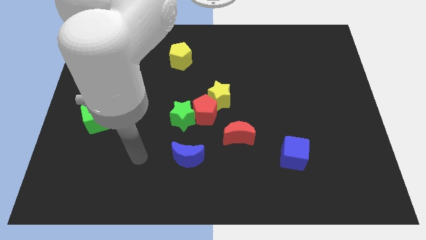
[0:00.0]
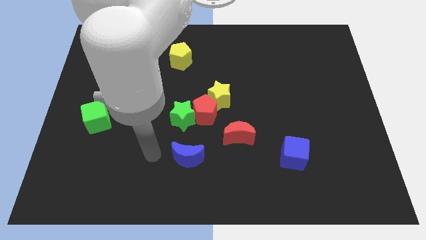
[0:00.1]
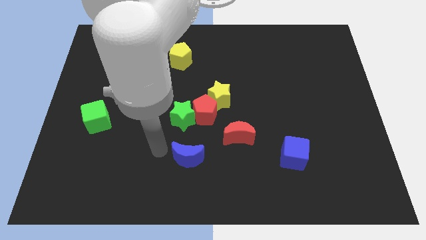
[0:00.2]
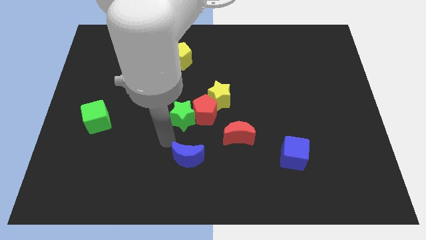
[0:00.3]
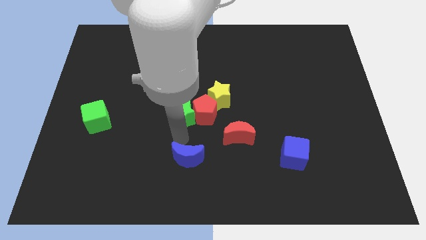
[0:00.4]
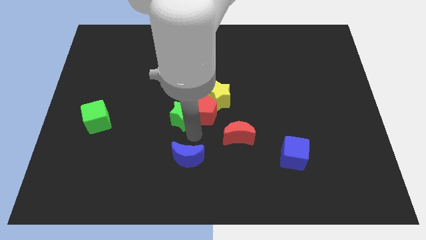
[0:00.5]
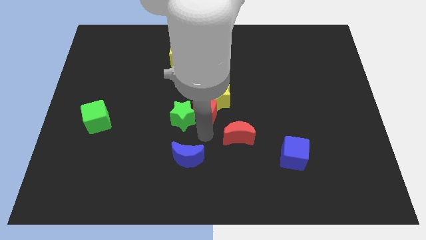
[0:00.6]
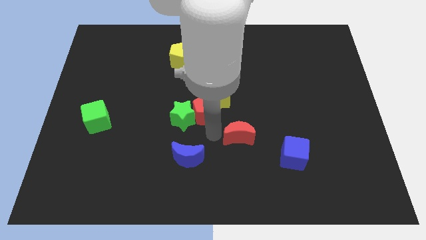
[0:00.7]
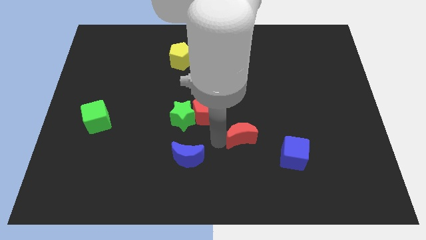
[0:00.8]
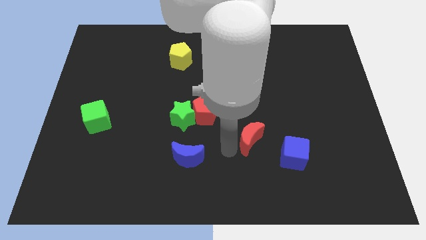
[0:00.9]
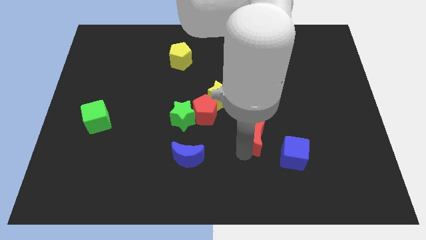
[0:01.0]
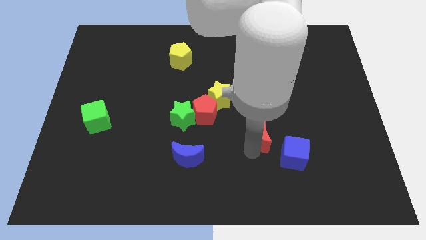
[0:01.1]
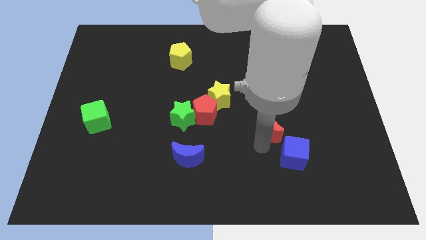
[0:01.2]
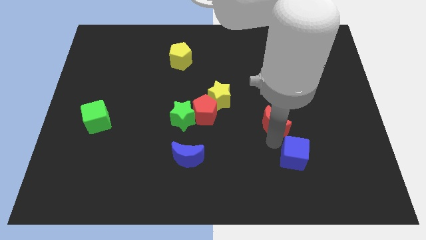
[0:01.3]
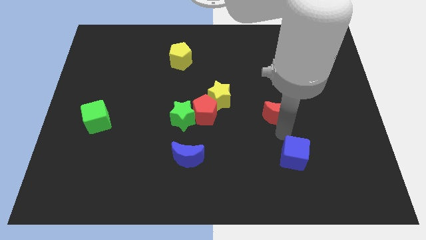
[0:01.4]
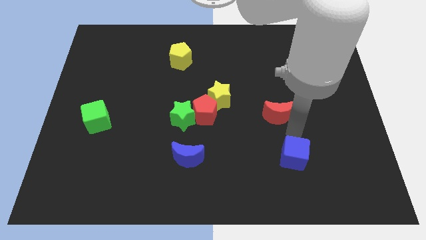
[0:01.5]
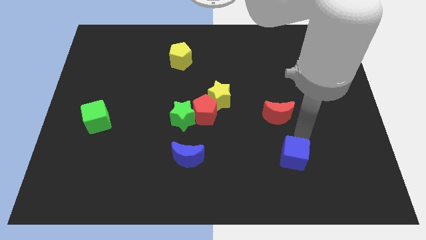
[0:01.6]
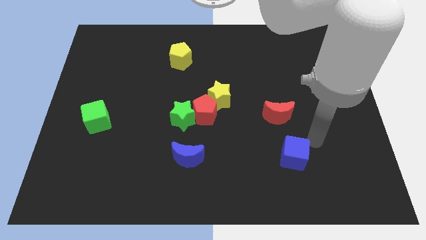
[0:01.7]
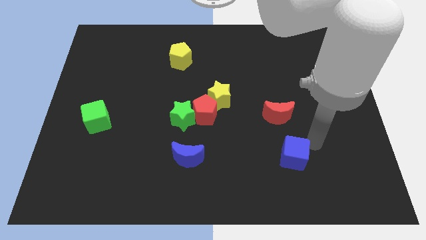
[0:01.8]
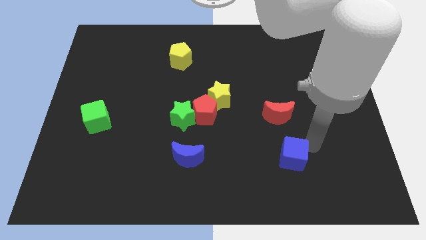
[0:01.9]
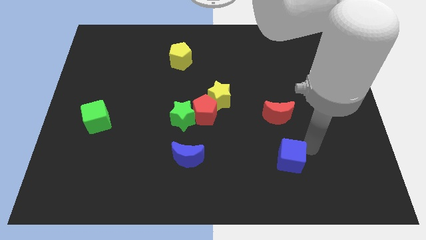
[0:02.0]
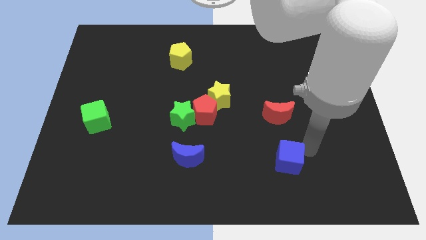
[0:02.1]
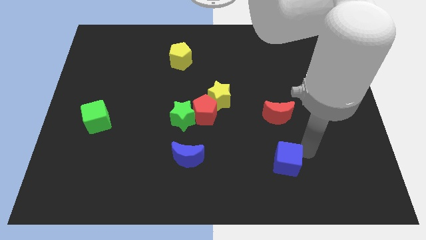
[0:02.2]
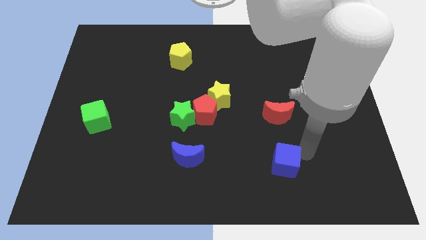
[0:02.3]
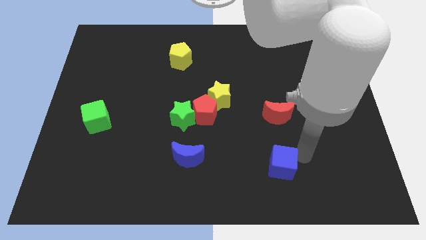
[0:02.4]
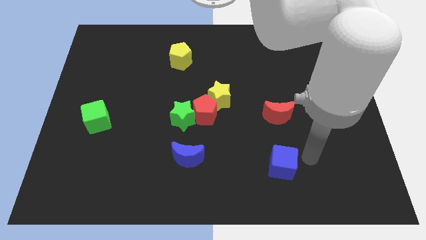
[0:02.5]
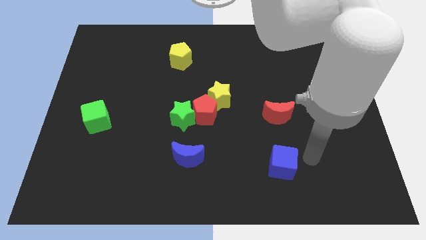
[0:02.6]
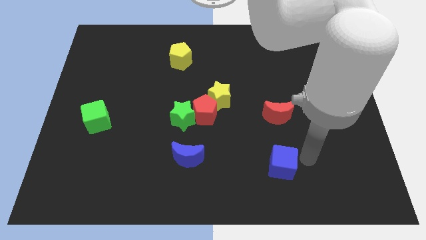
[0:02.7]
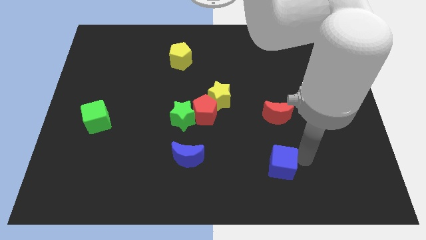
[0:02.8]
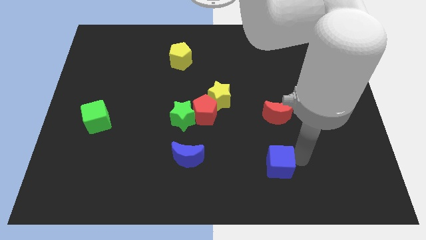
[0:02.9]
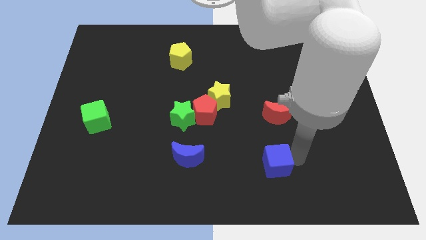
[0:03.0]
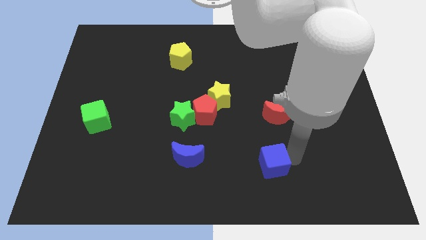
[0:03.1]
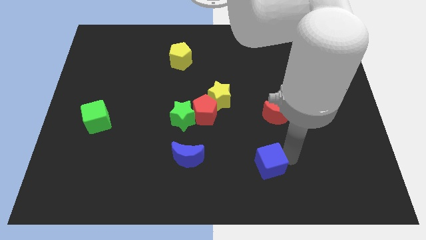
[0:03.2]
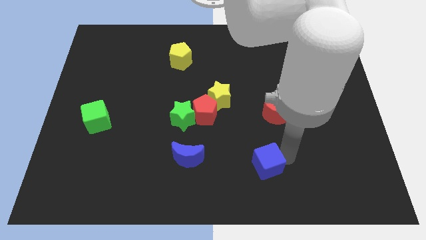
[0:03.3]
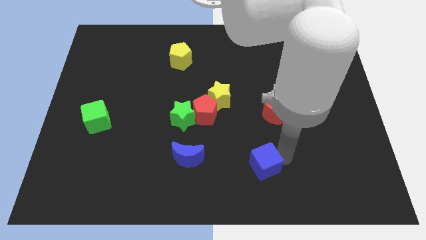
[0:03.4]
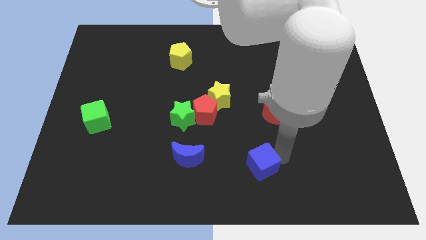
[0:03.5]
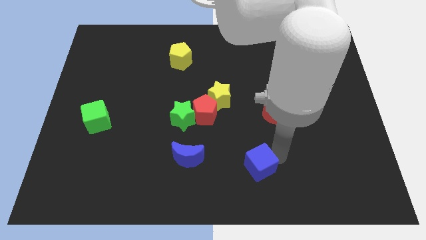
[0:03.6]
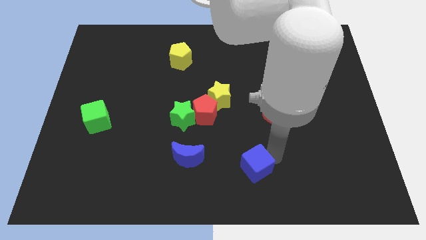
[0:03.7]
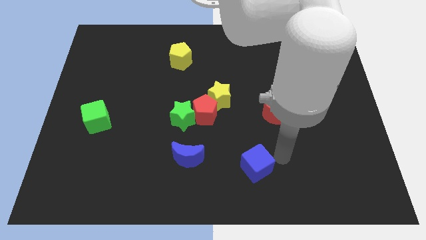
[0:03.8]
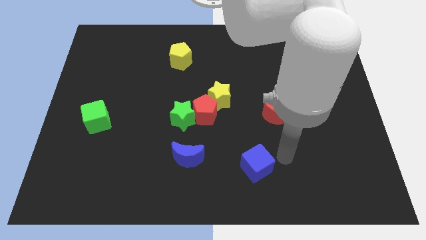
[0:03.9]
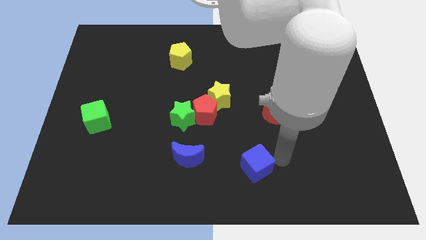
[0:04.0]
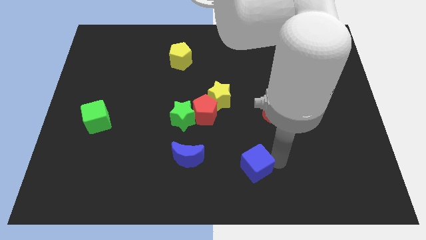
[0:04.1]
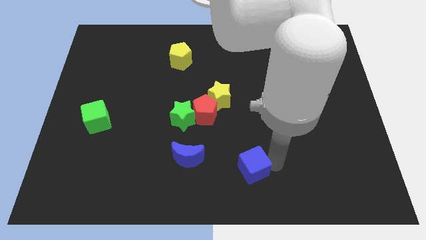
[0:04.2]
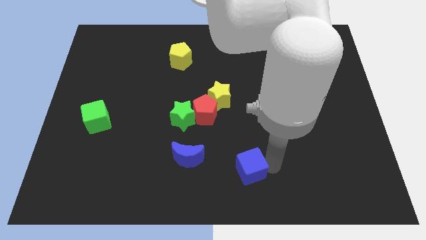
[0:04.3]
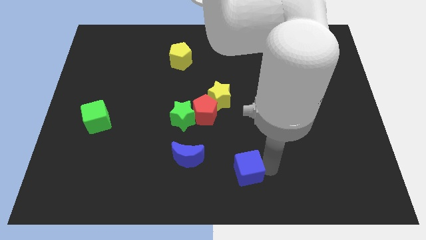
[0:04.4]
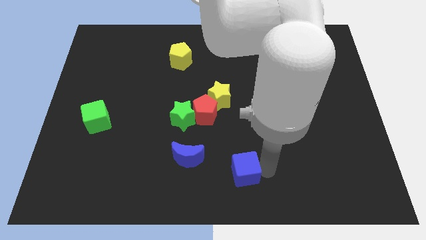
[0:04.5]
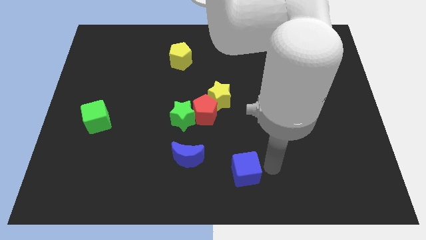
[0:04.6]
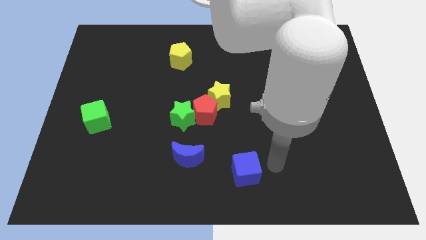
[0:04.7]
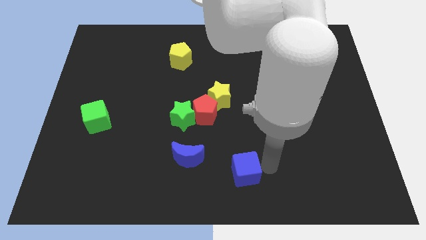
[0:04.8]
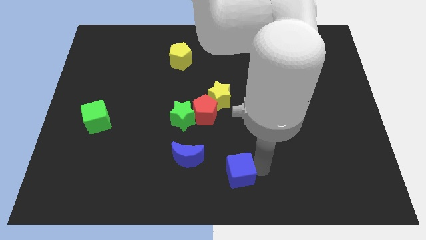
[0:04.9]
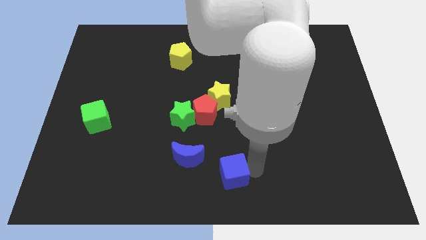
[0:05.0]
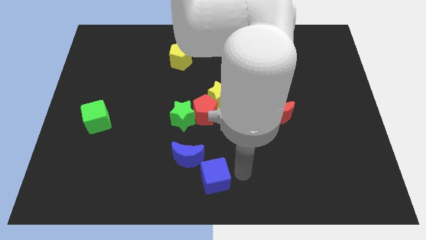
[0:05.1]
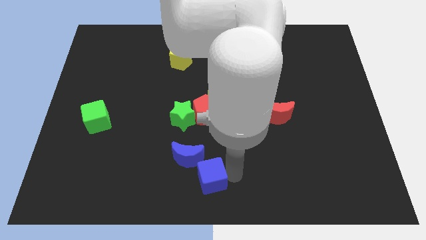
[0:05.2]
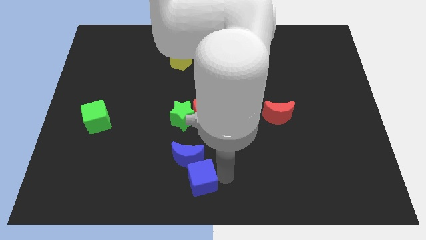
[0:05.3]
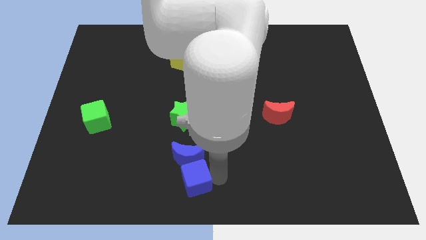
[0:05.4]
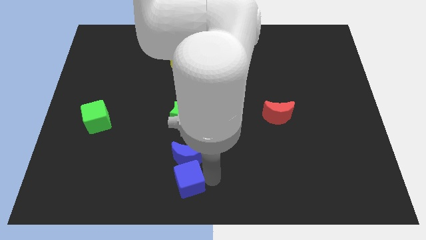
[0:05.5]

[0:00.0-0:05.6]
put the blue cube to the bottom left of the blue moon

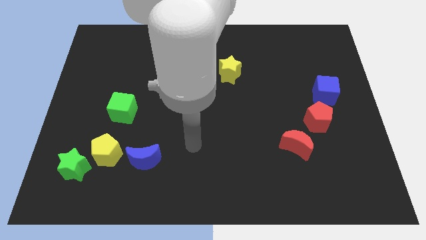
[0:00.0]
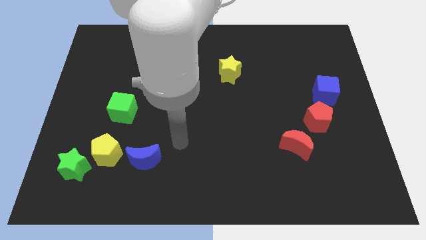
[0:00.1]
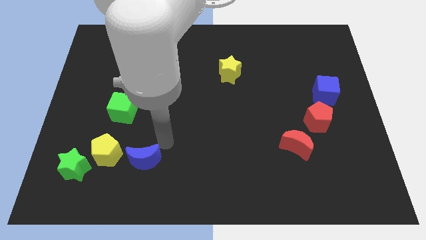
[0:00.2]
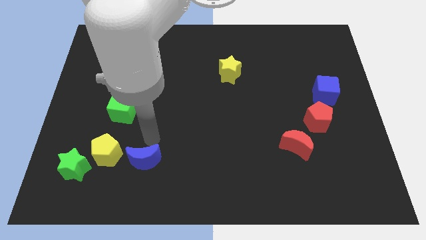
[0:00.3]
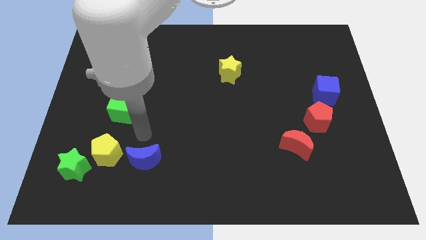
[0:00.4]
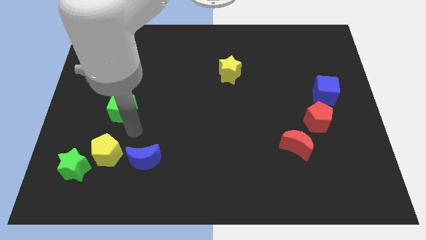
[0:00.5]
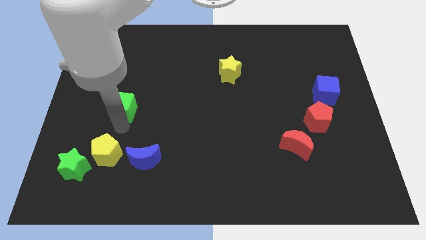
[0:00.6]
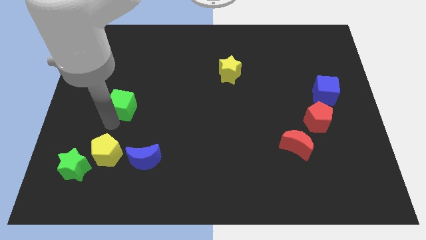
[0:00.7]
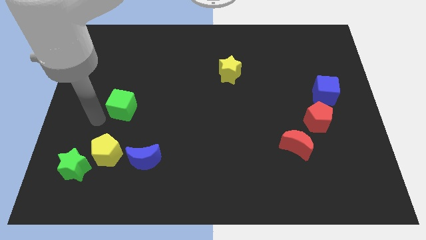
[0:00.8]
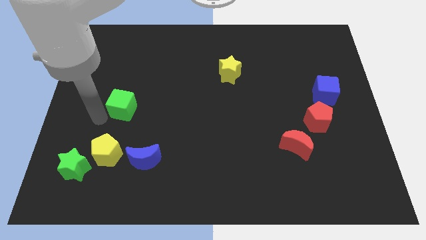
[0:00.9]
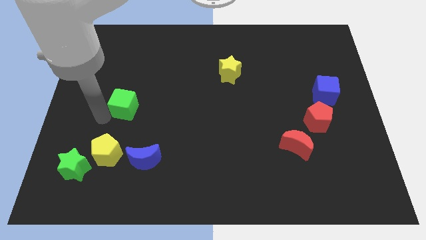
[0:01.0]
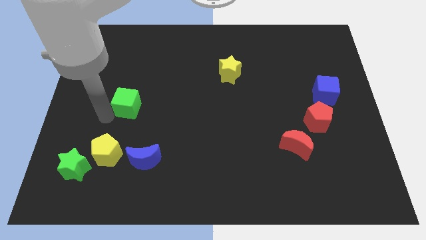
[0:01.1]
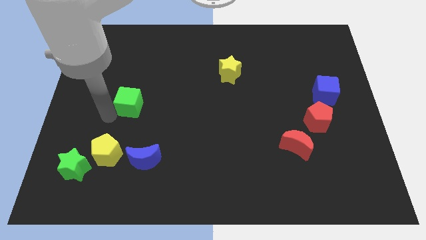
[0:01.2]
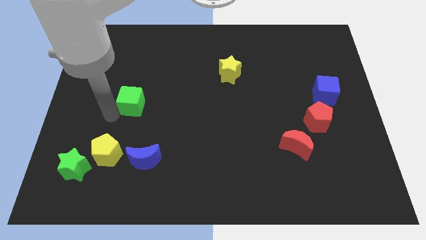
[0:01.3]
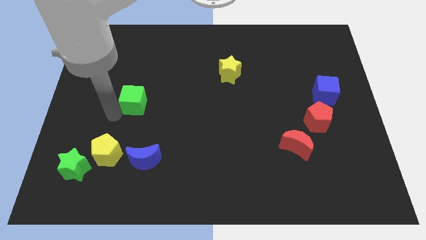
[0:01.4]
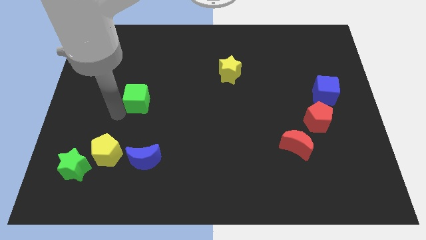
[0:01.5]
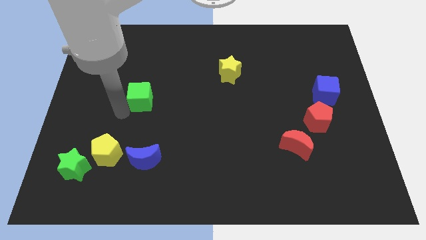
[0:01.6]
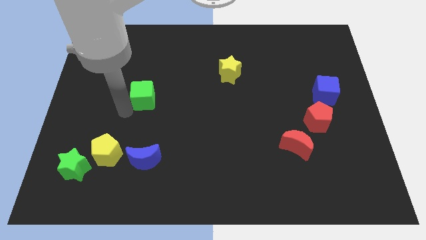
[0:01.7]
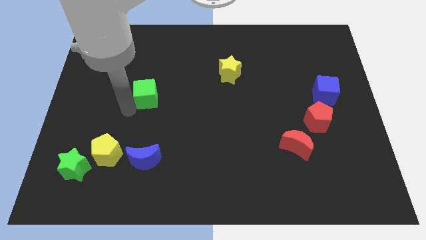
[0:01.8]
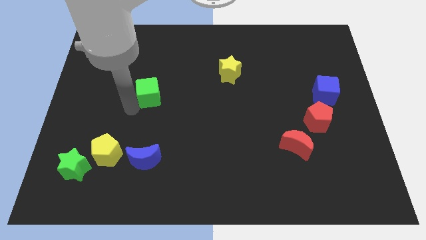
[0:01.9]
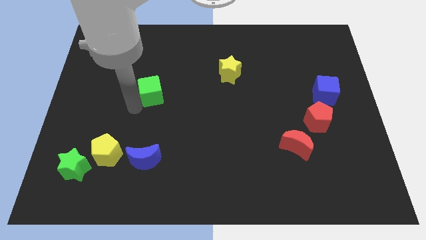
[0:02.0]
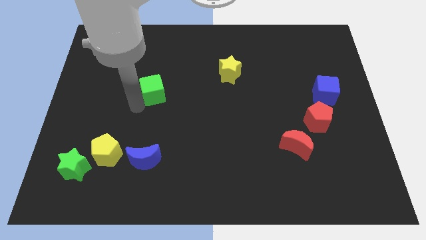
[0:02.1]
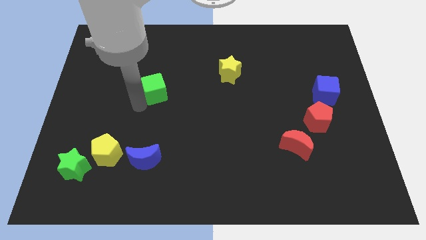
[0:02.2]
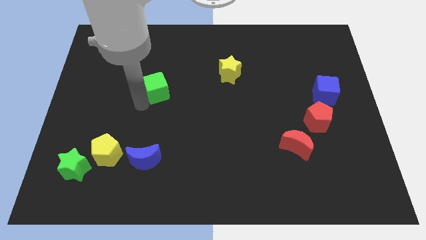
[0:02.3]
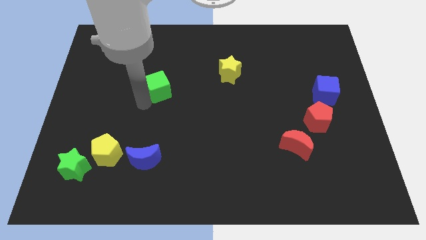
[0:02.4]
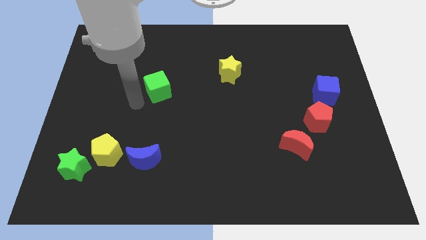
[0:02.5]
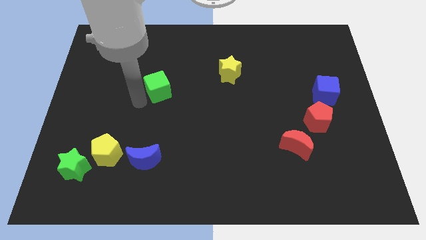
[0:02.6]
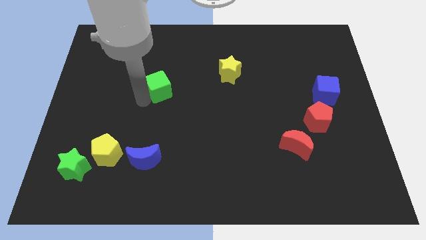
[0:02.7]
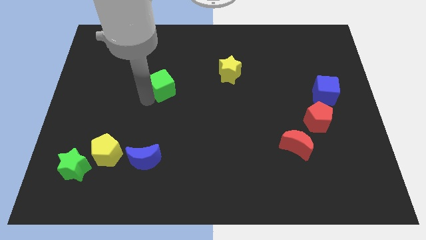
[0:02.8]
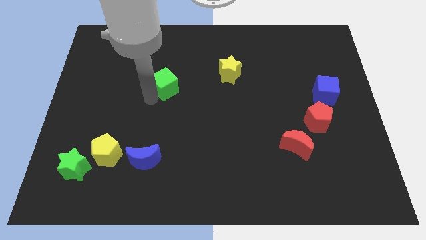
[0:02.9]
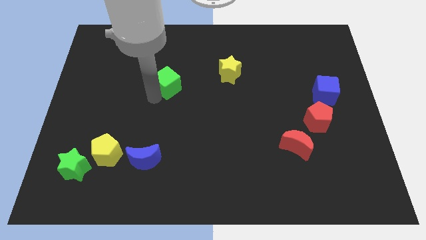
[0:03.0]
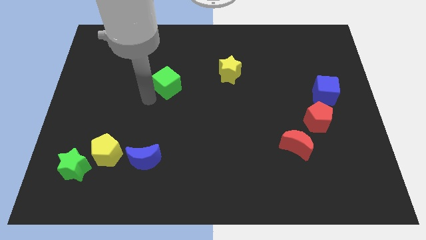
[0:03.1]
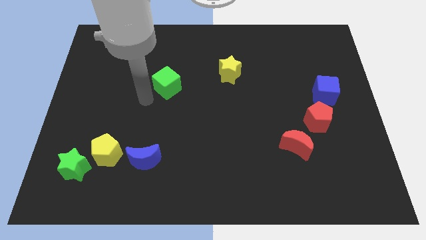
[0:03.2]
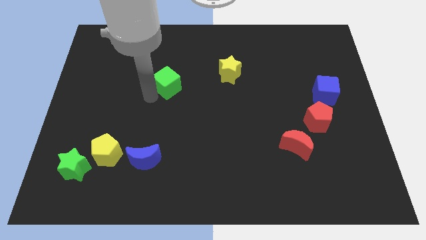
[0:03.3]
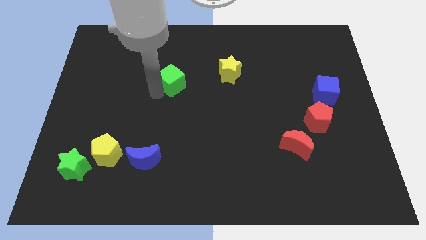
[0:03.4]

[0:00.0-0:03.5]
push the green cube just left of the yellow star
